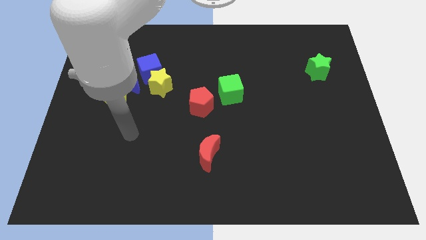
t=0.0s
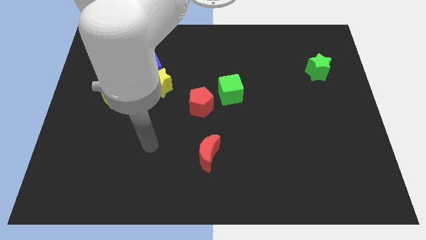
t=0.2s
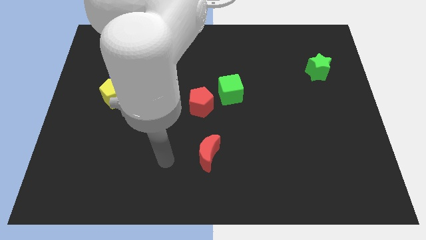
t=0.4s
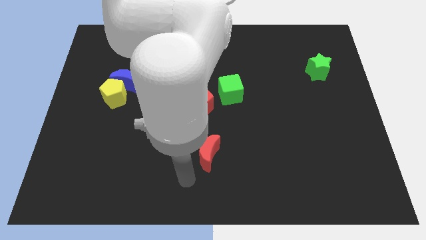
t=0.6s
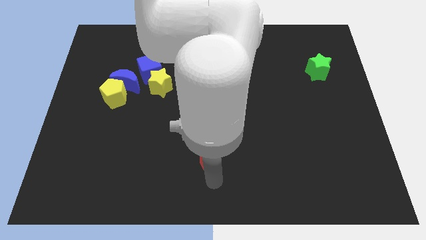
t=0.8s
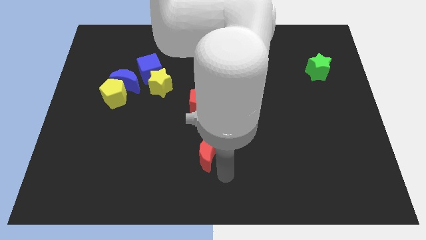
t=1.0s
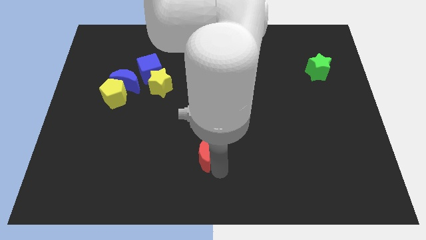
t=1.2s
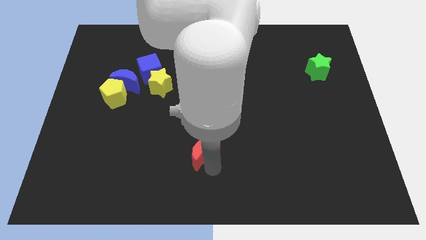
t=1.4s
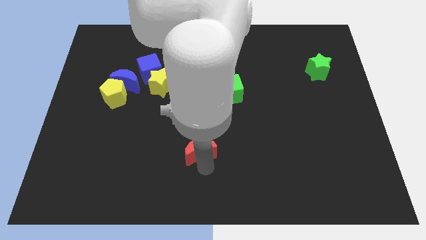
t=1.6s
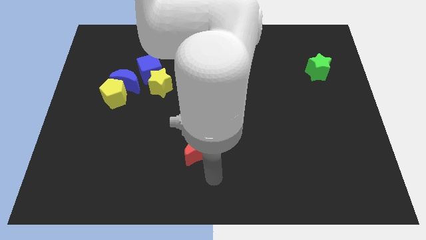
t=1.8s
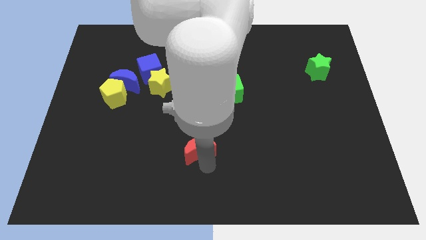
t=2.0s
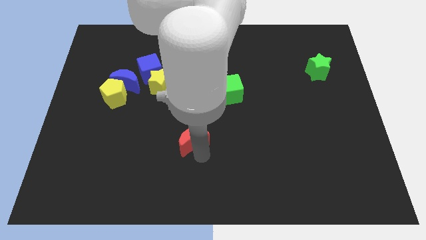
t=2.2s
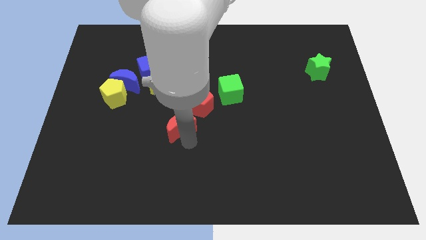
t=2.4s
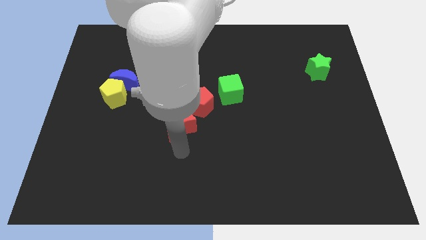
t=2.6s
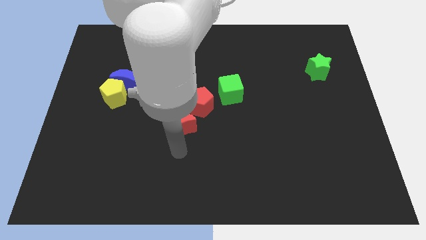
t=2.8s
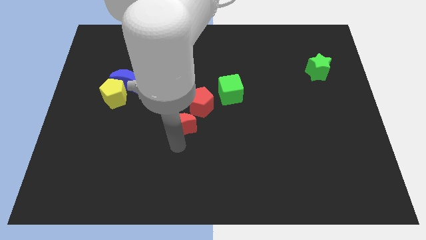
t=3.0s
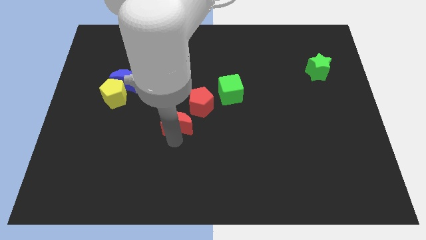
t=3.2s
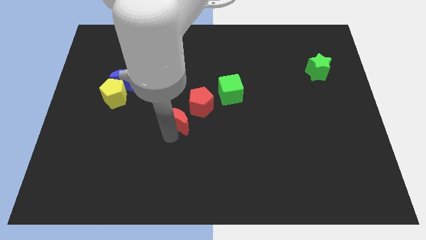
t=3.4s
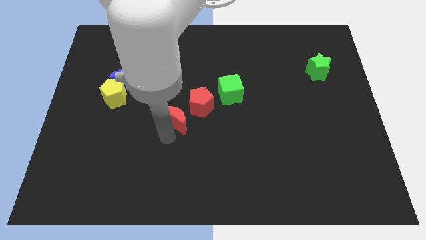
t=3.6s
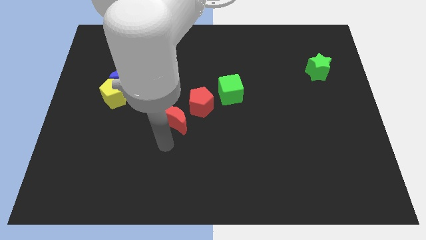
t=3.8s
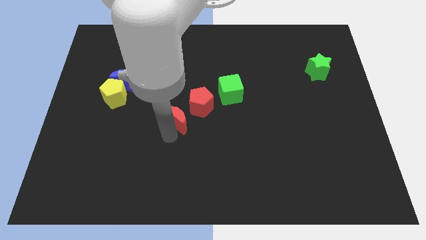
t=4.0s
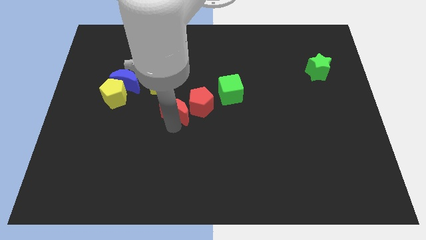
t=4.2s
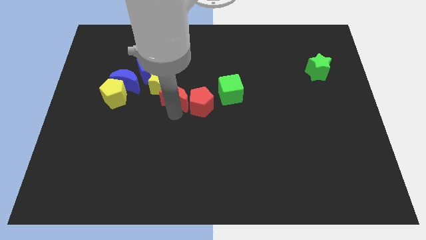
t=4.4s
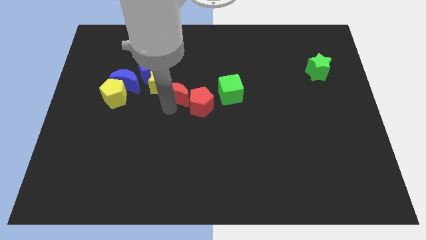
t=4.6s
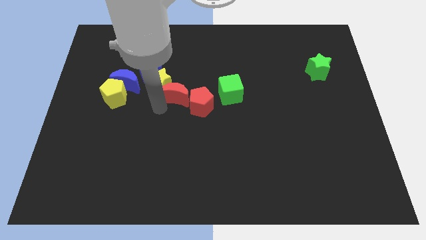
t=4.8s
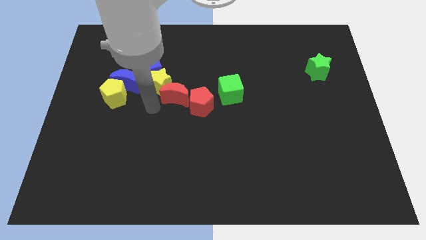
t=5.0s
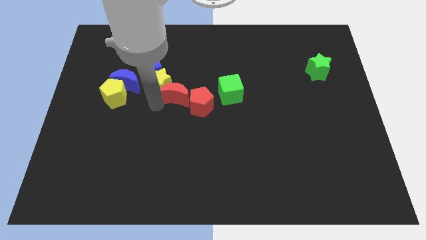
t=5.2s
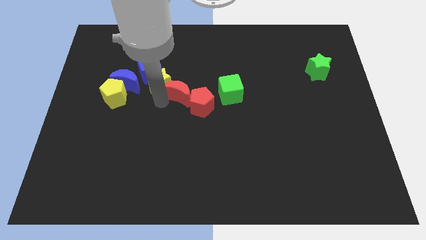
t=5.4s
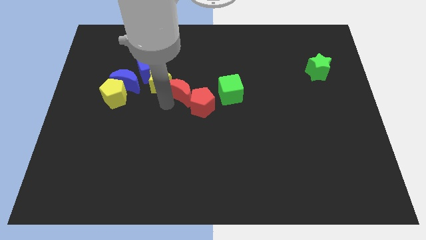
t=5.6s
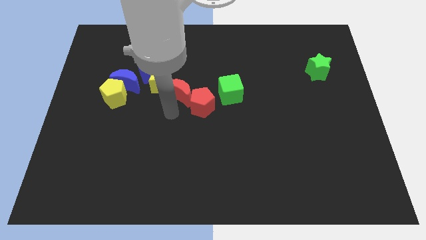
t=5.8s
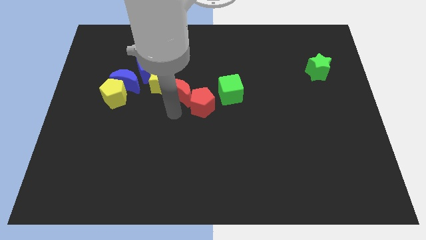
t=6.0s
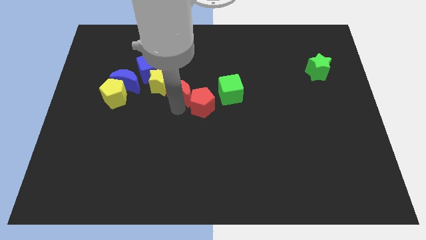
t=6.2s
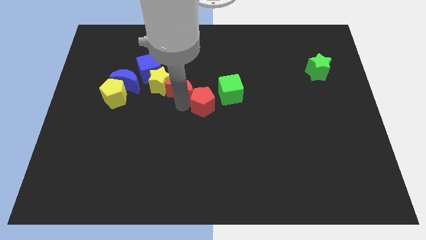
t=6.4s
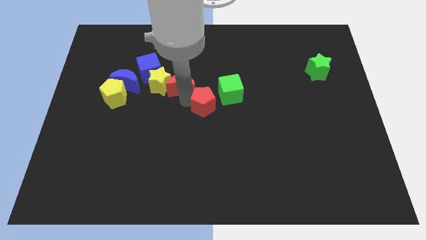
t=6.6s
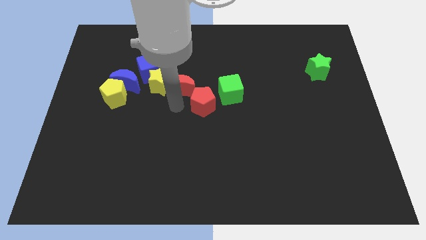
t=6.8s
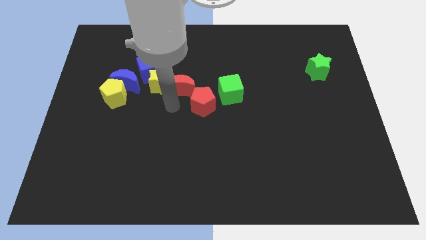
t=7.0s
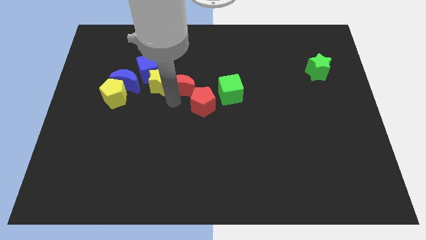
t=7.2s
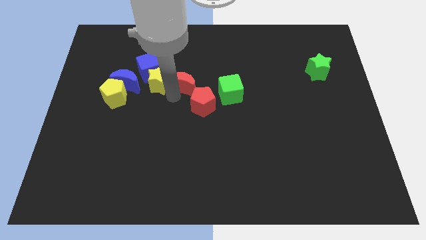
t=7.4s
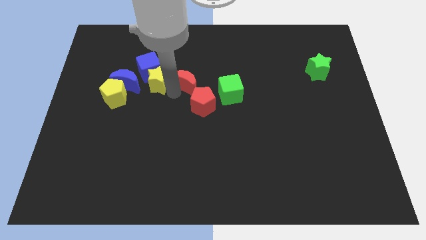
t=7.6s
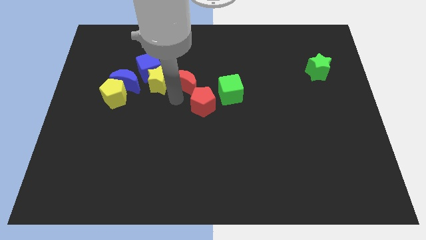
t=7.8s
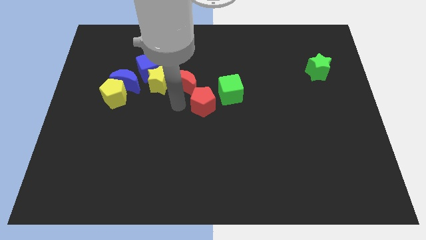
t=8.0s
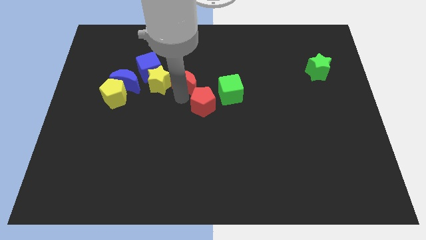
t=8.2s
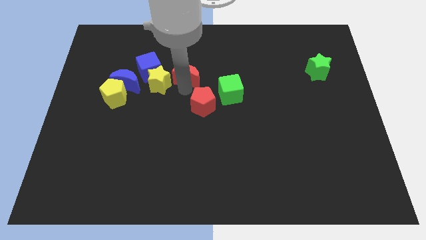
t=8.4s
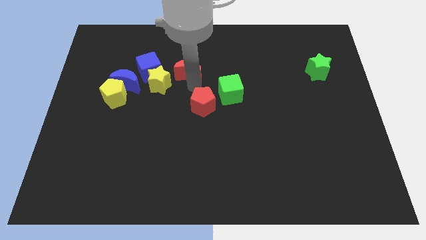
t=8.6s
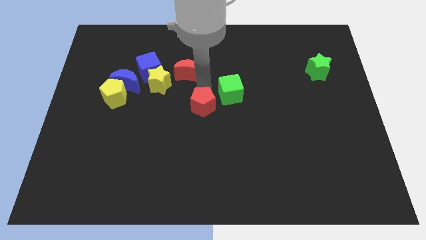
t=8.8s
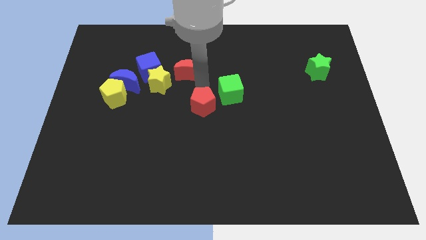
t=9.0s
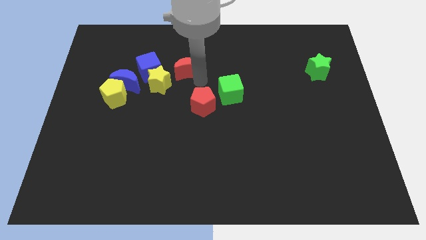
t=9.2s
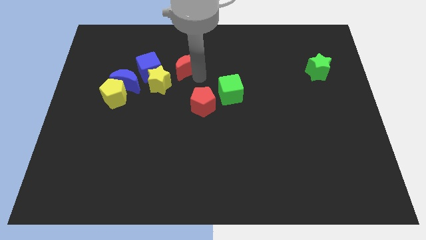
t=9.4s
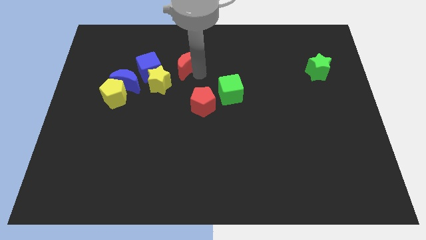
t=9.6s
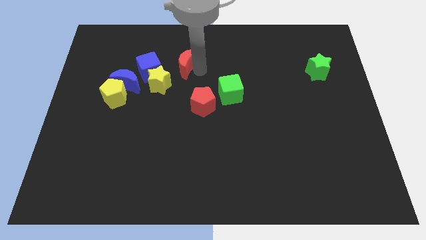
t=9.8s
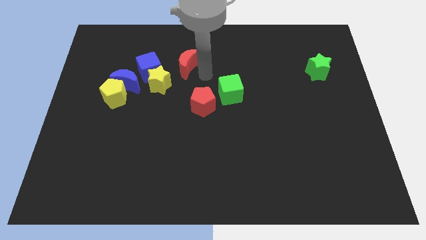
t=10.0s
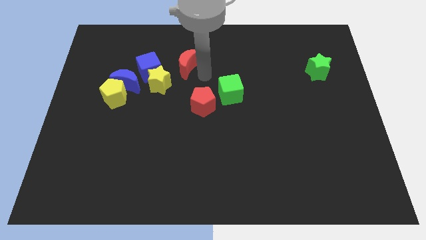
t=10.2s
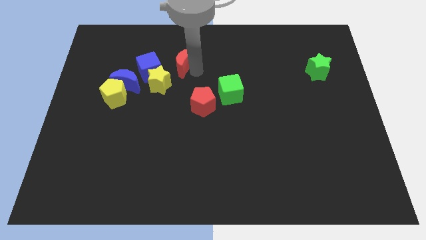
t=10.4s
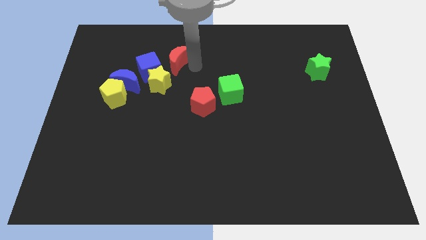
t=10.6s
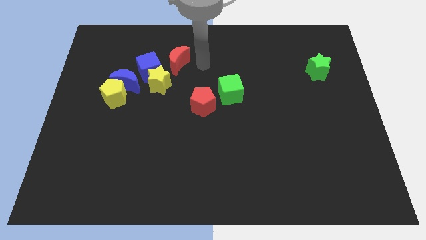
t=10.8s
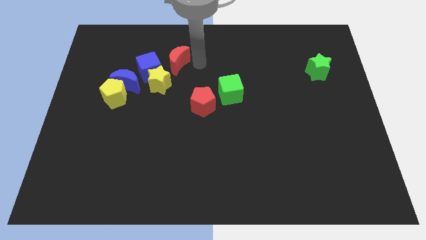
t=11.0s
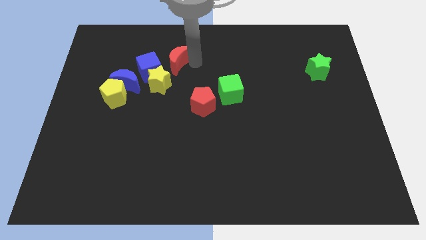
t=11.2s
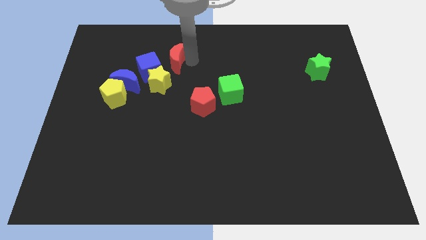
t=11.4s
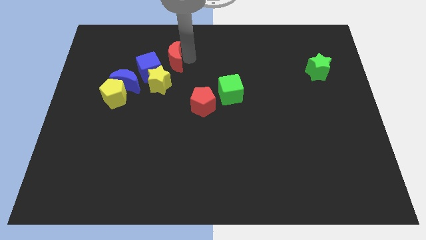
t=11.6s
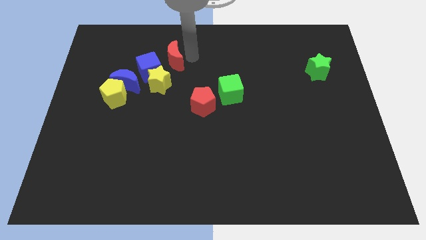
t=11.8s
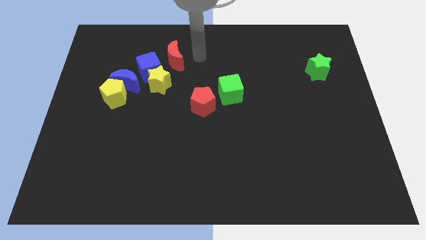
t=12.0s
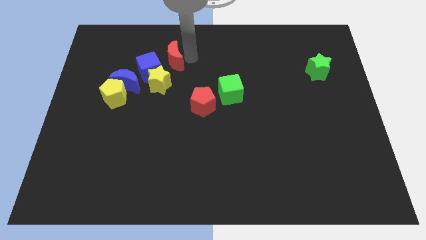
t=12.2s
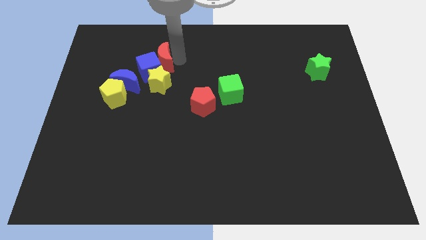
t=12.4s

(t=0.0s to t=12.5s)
push the red moon up and to the left diagonally

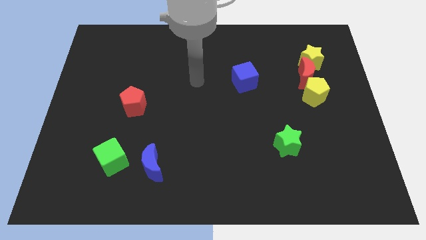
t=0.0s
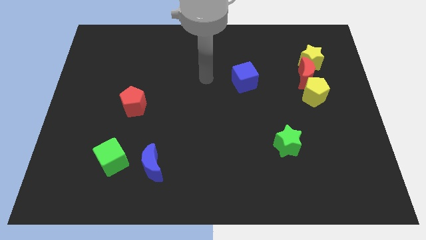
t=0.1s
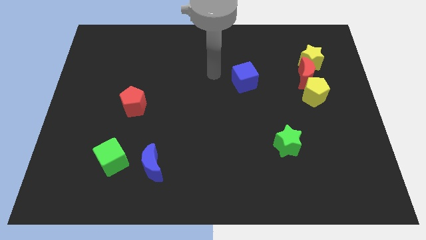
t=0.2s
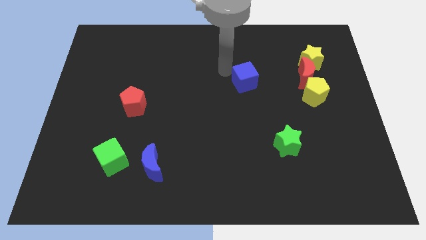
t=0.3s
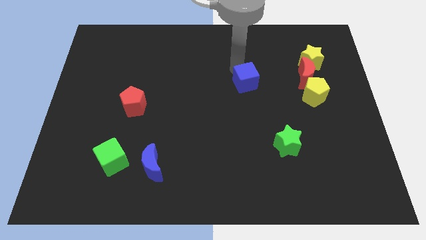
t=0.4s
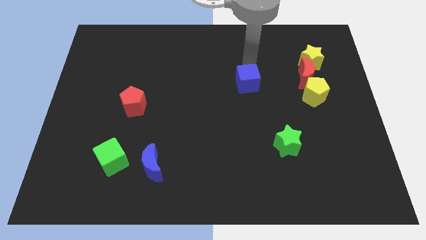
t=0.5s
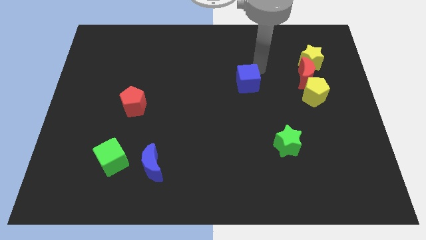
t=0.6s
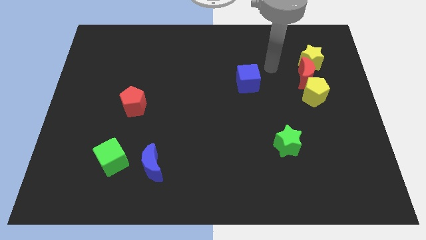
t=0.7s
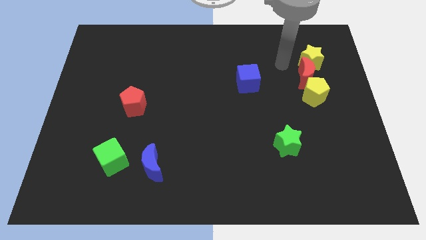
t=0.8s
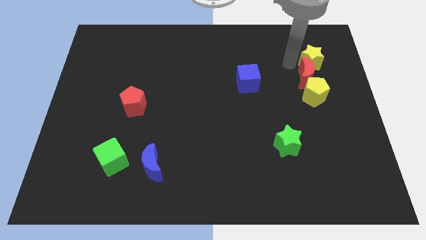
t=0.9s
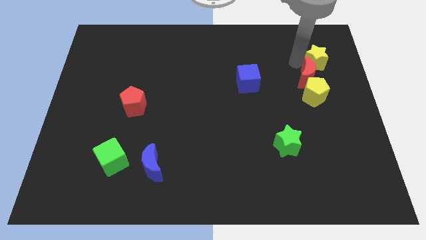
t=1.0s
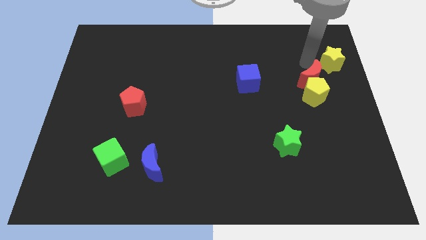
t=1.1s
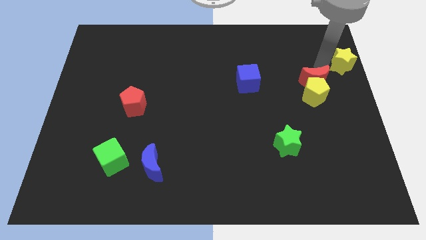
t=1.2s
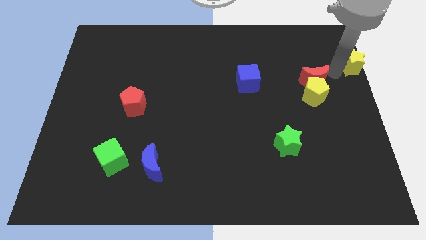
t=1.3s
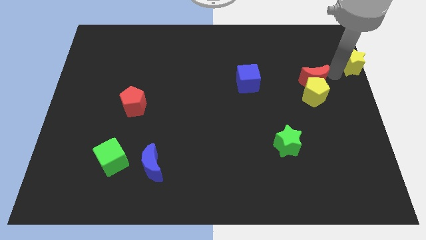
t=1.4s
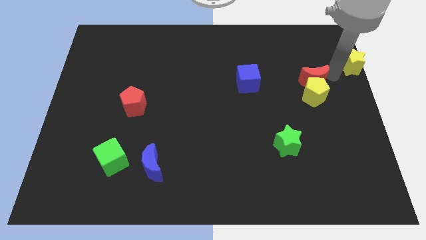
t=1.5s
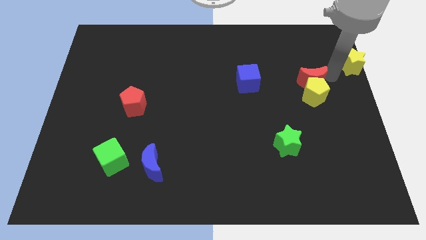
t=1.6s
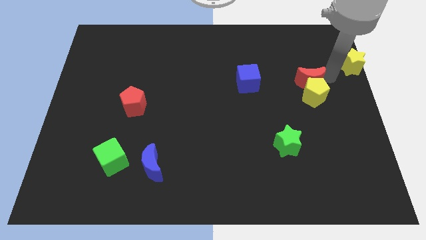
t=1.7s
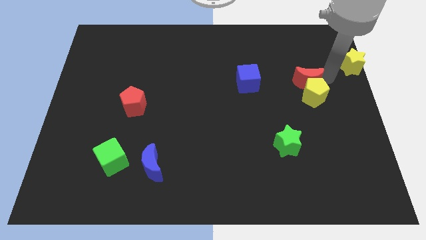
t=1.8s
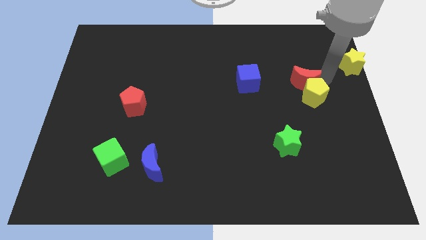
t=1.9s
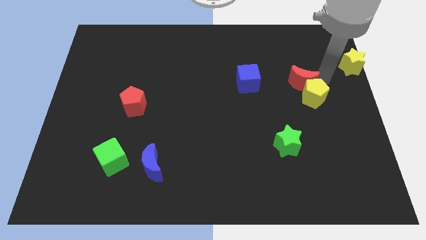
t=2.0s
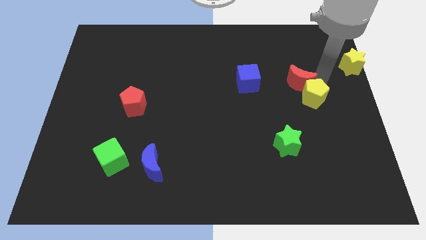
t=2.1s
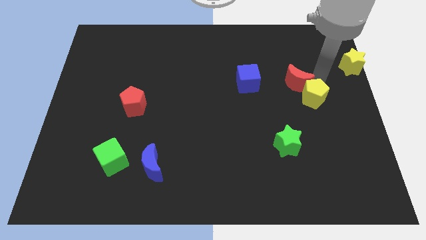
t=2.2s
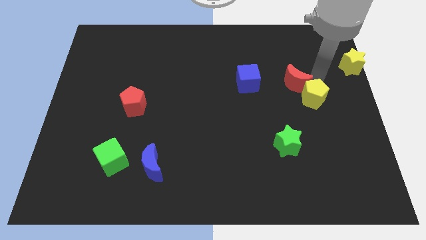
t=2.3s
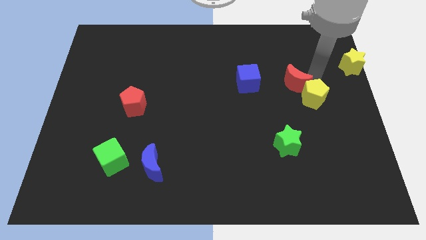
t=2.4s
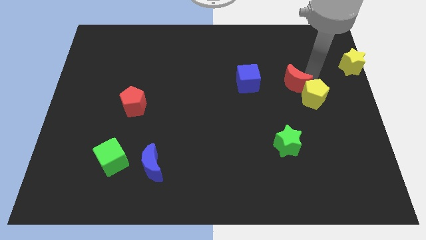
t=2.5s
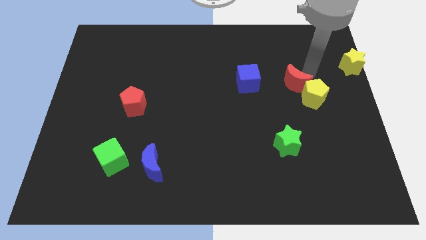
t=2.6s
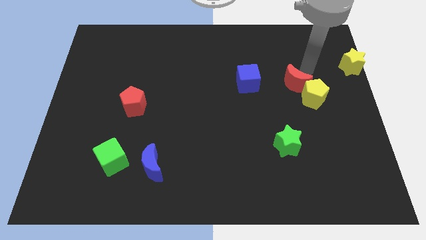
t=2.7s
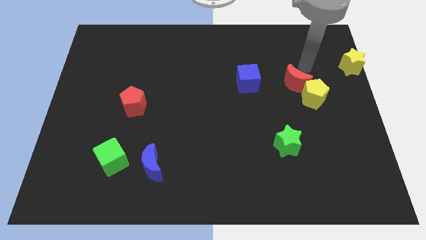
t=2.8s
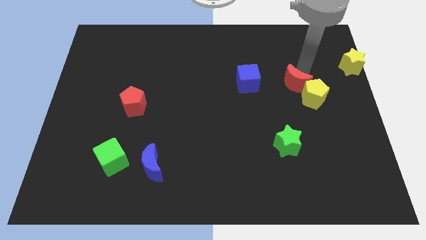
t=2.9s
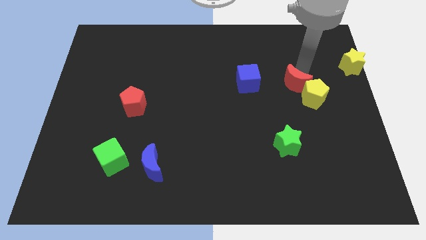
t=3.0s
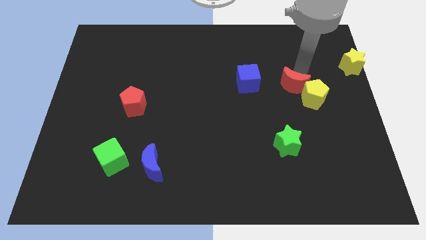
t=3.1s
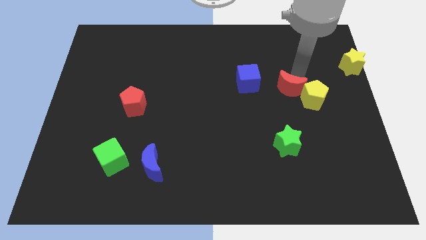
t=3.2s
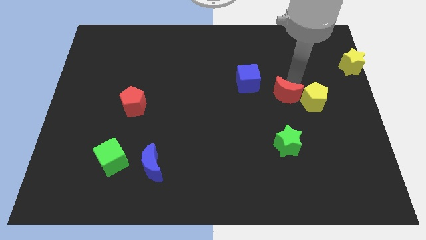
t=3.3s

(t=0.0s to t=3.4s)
slightly move the red moon down and left
